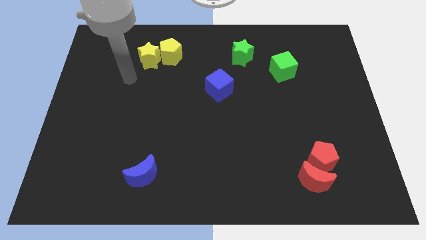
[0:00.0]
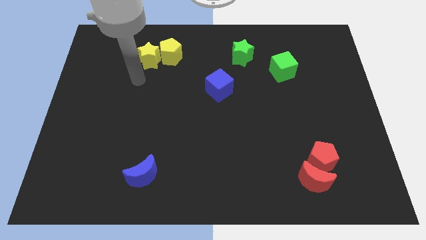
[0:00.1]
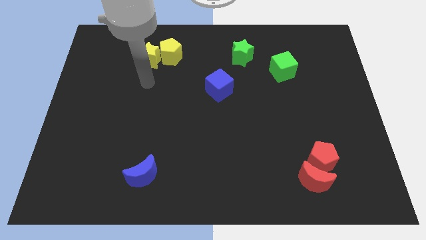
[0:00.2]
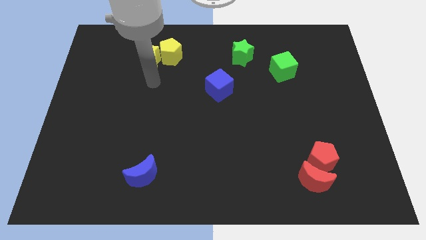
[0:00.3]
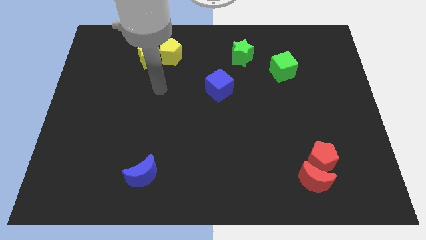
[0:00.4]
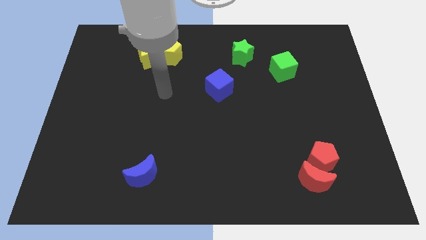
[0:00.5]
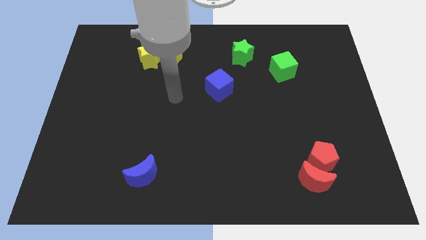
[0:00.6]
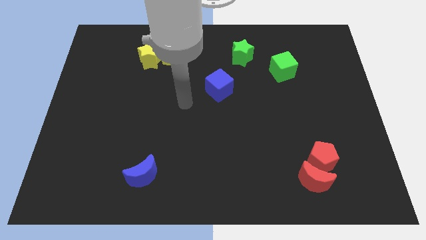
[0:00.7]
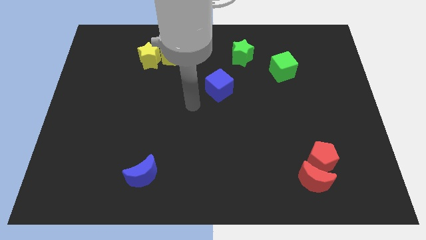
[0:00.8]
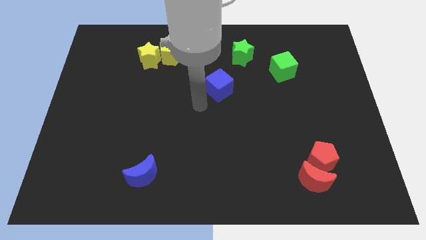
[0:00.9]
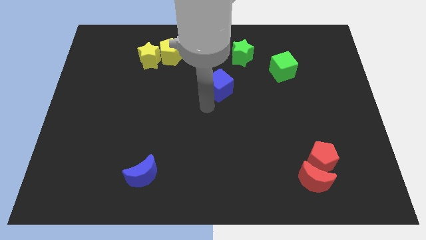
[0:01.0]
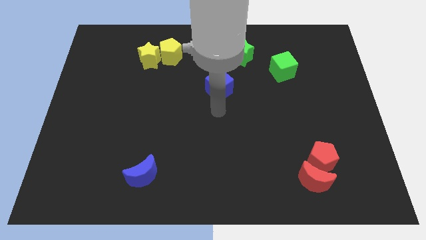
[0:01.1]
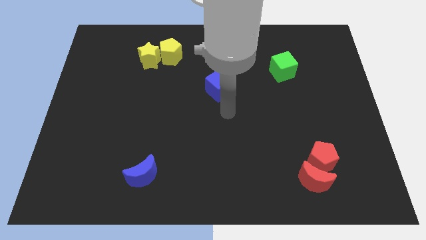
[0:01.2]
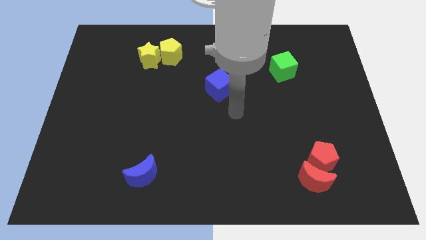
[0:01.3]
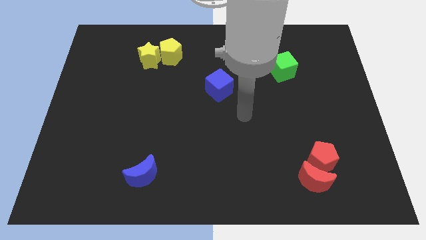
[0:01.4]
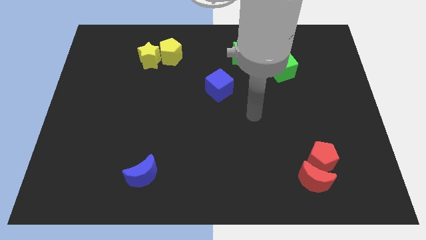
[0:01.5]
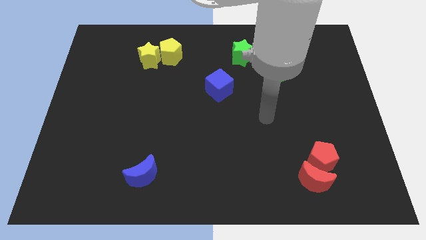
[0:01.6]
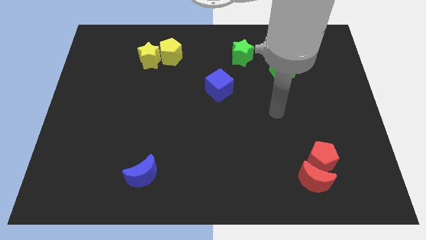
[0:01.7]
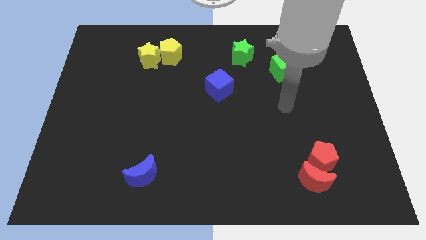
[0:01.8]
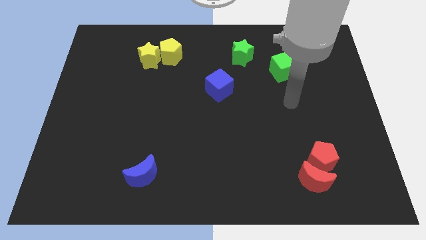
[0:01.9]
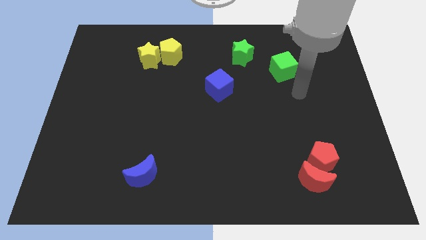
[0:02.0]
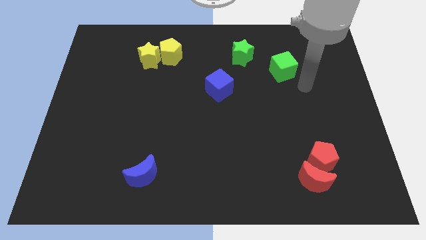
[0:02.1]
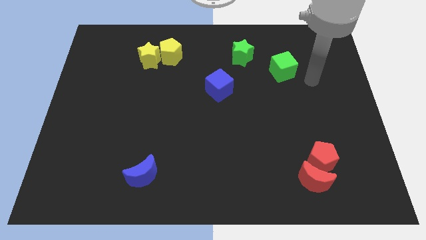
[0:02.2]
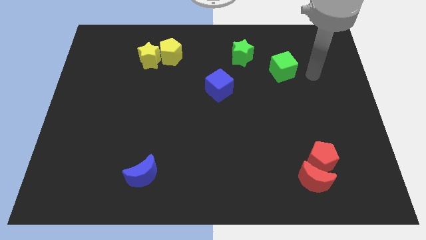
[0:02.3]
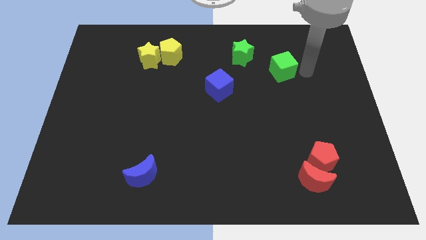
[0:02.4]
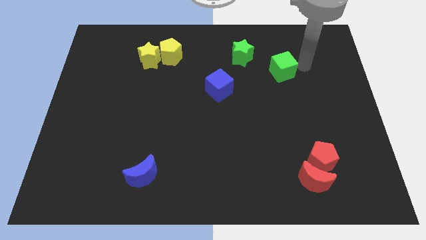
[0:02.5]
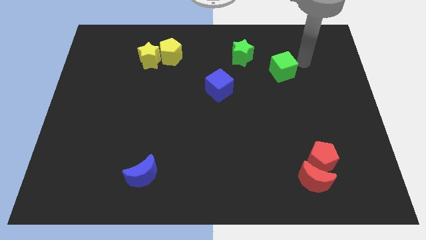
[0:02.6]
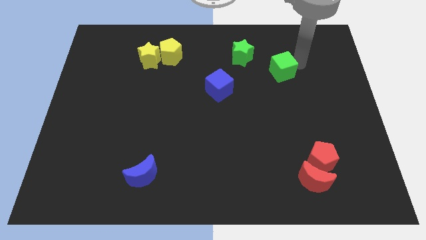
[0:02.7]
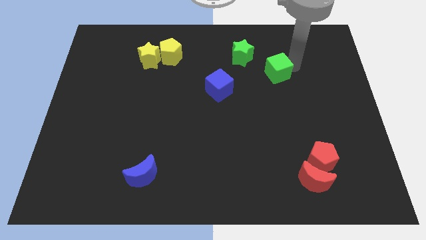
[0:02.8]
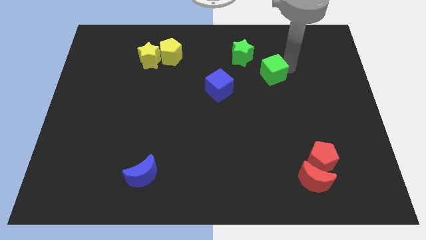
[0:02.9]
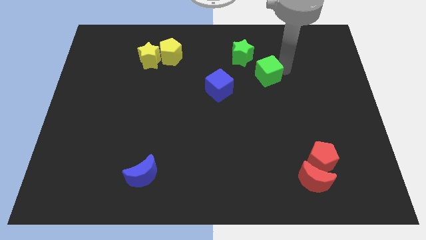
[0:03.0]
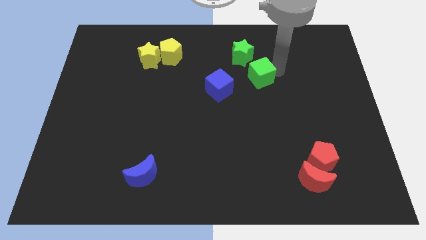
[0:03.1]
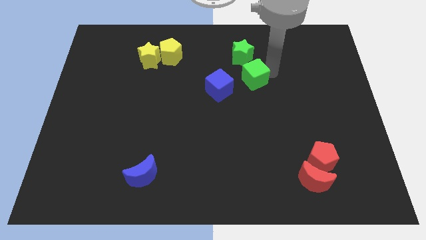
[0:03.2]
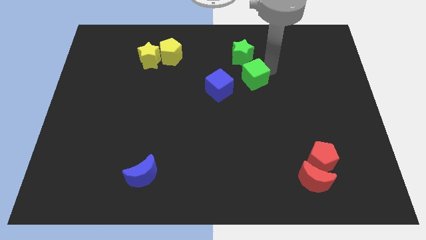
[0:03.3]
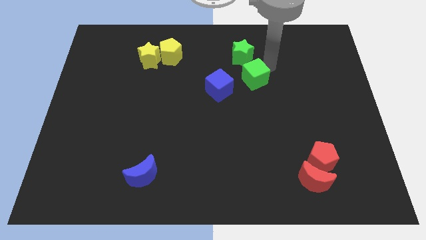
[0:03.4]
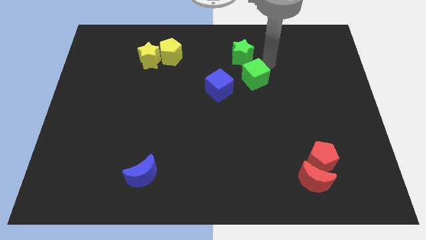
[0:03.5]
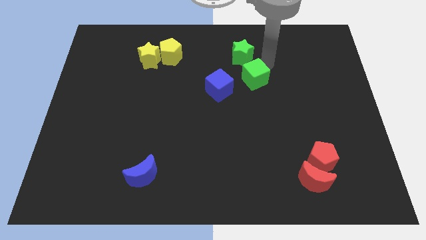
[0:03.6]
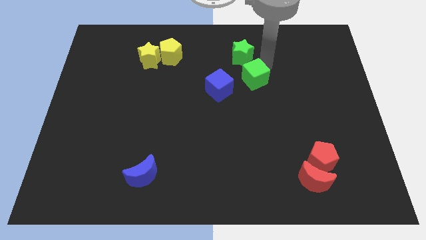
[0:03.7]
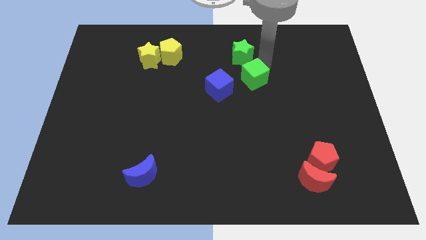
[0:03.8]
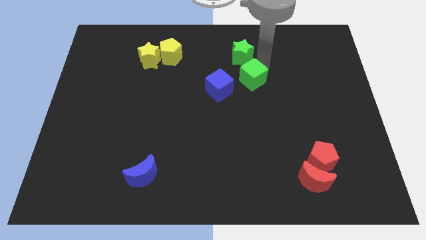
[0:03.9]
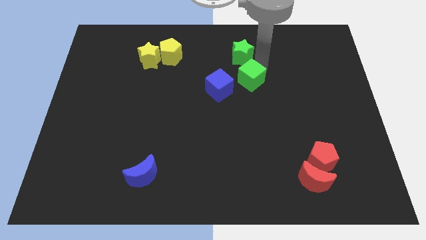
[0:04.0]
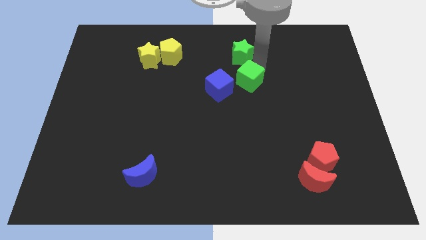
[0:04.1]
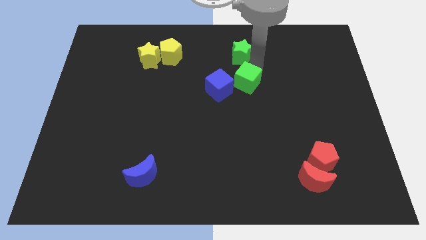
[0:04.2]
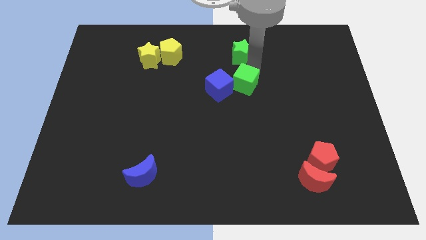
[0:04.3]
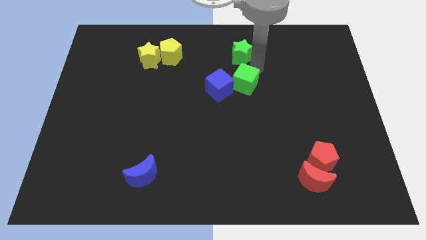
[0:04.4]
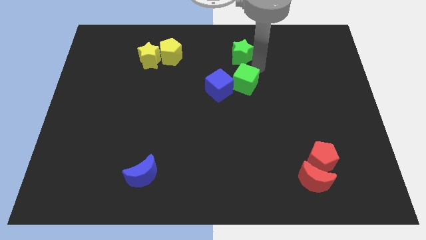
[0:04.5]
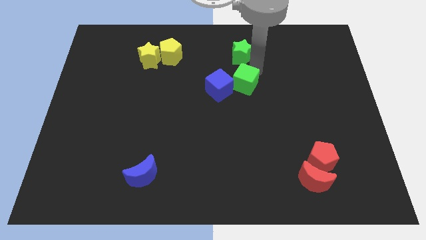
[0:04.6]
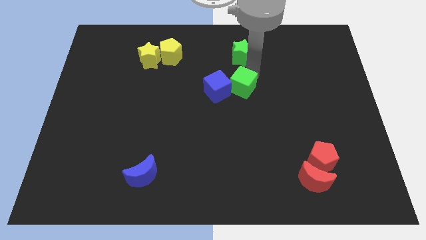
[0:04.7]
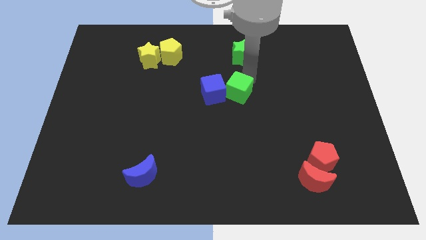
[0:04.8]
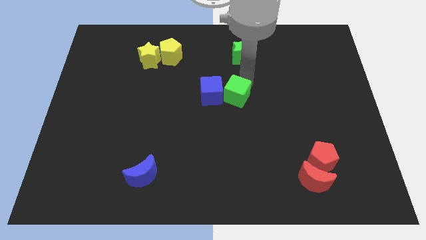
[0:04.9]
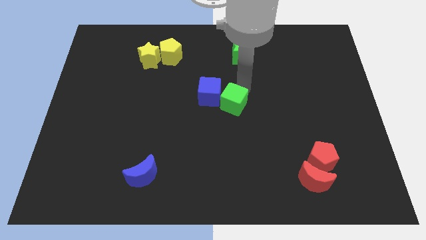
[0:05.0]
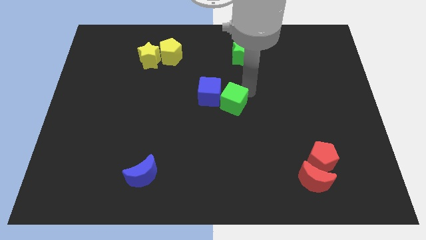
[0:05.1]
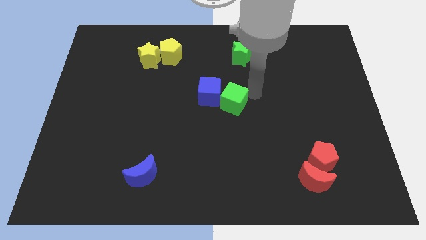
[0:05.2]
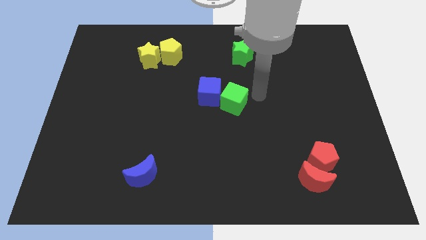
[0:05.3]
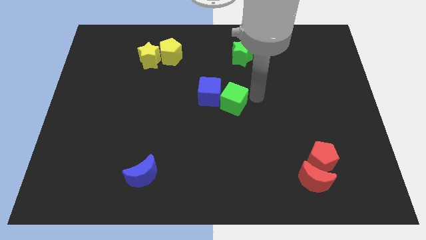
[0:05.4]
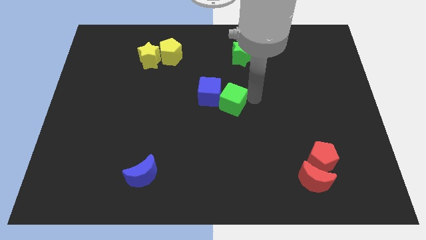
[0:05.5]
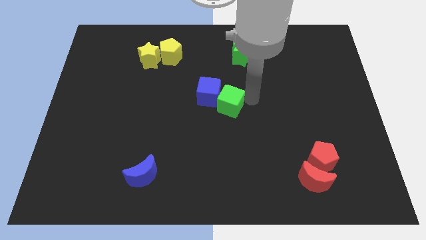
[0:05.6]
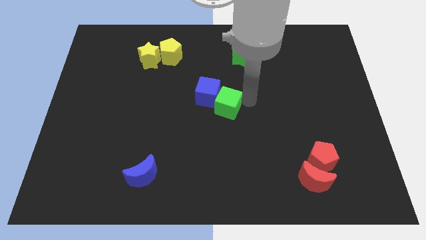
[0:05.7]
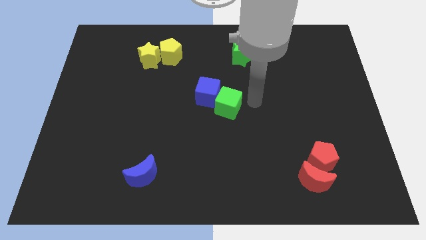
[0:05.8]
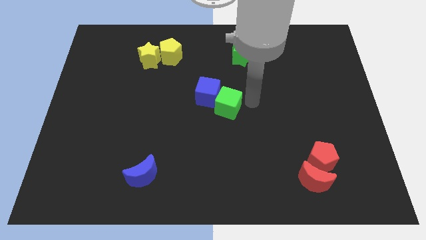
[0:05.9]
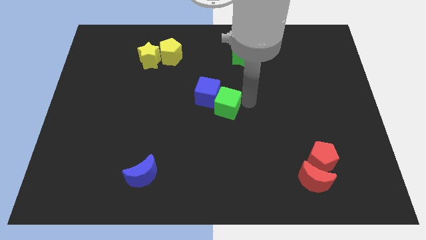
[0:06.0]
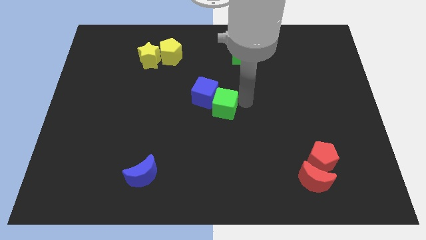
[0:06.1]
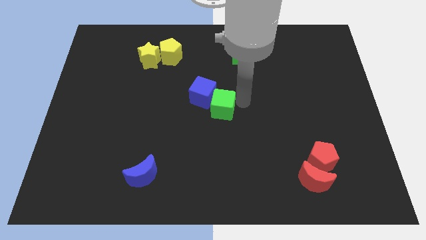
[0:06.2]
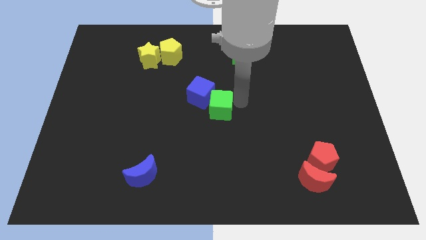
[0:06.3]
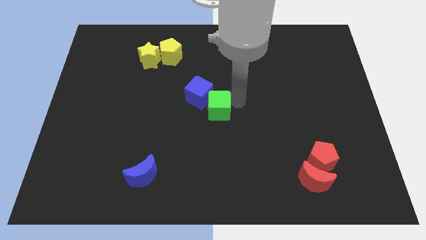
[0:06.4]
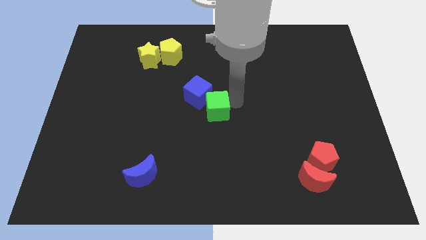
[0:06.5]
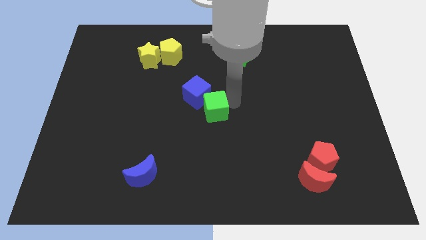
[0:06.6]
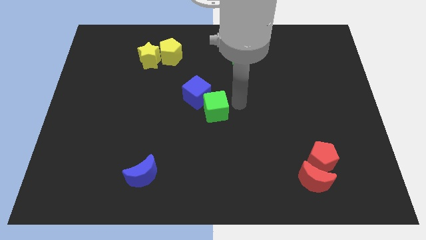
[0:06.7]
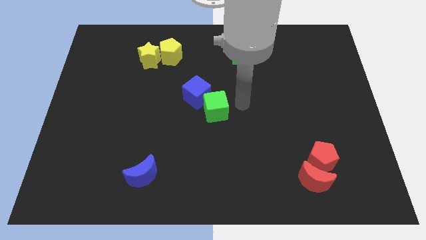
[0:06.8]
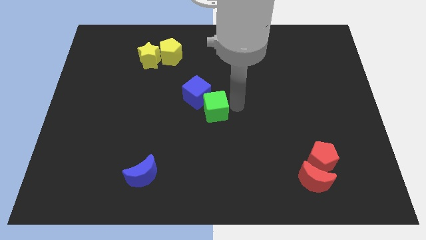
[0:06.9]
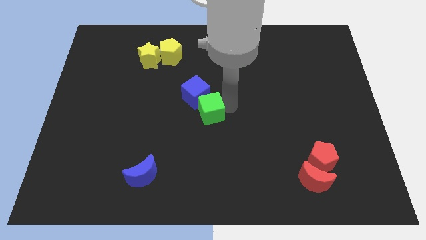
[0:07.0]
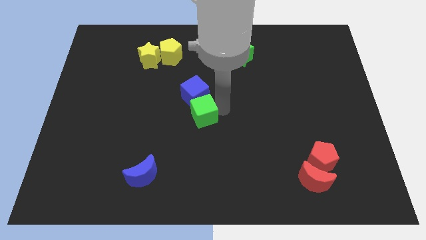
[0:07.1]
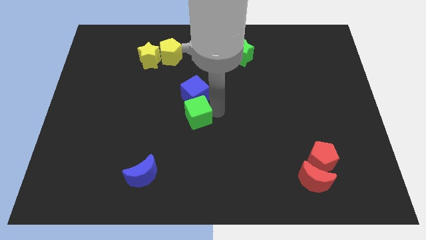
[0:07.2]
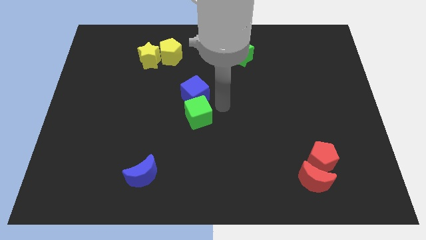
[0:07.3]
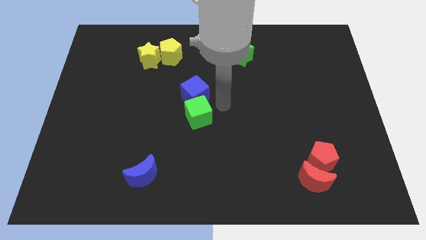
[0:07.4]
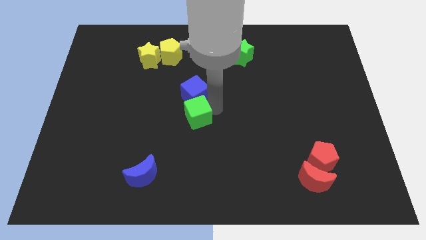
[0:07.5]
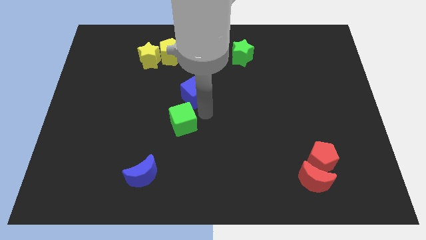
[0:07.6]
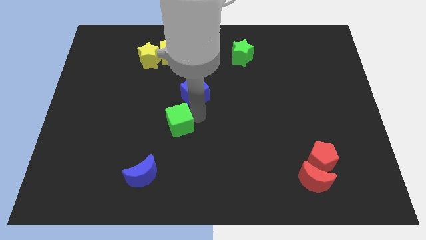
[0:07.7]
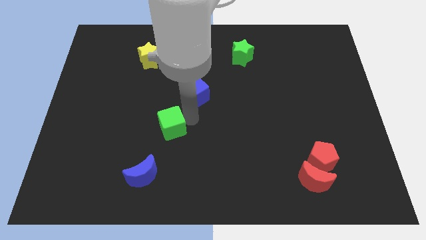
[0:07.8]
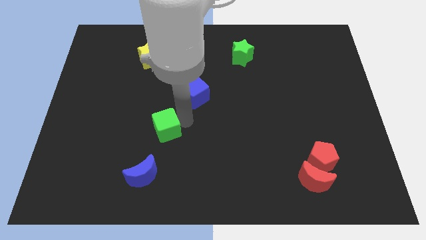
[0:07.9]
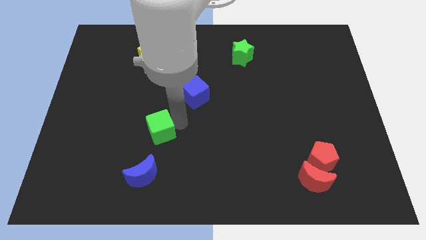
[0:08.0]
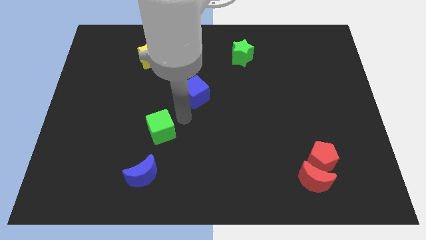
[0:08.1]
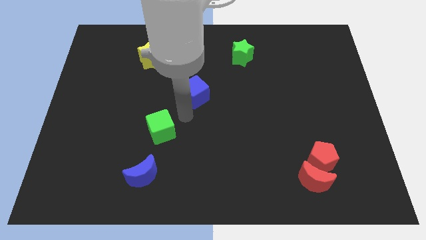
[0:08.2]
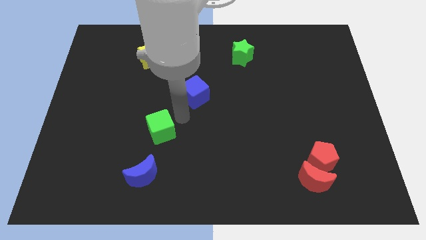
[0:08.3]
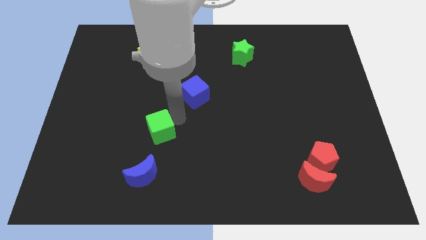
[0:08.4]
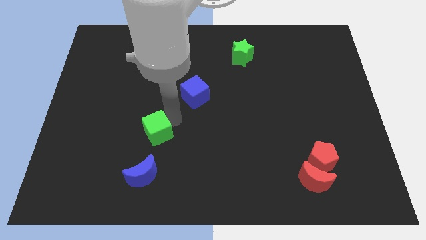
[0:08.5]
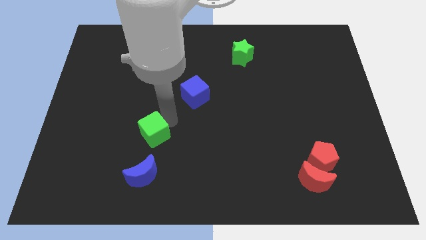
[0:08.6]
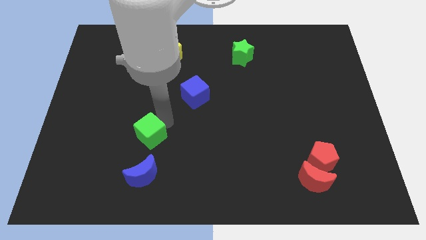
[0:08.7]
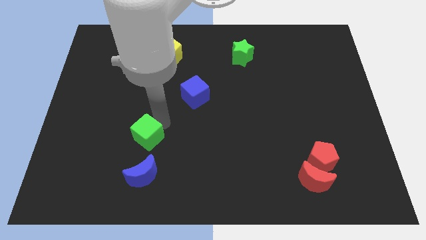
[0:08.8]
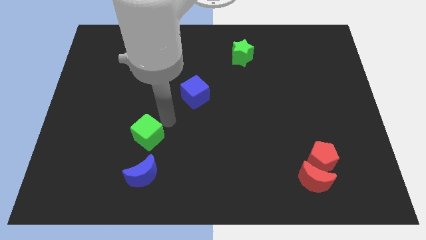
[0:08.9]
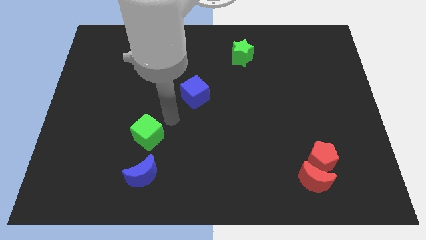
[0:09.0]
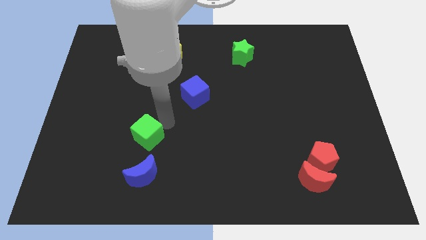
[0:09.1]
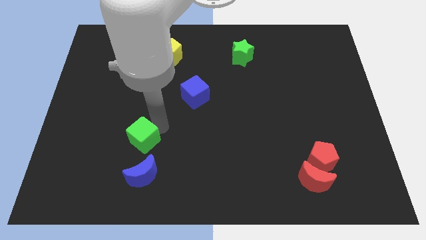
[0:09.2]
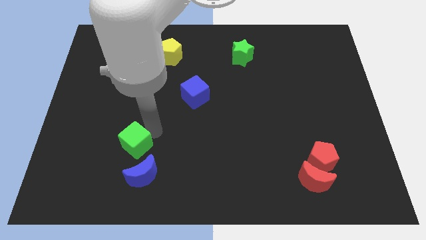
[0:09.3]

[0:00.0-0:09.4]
push the green cube to the top left of the blue moon
